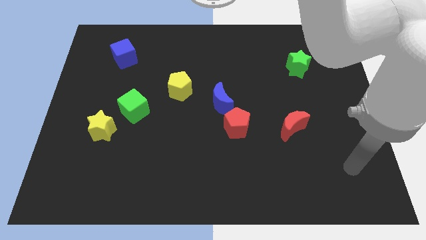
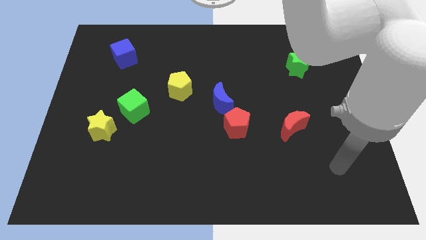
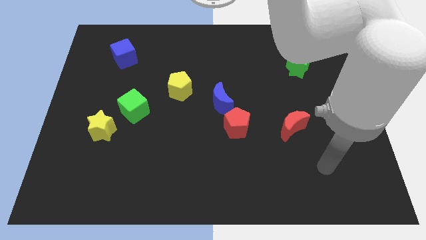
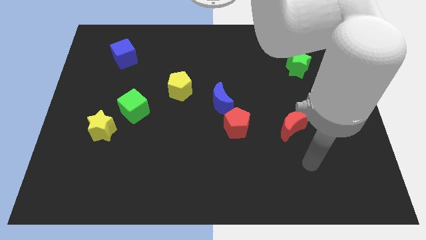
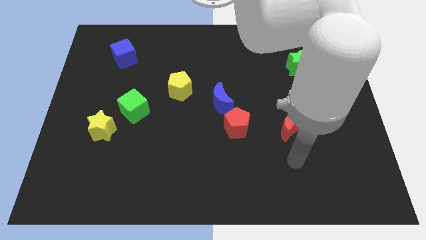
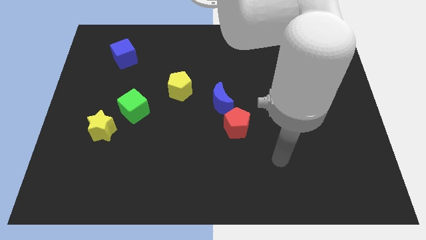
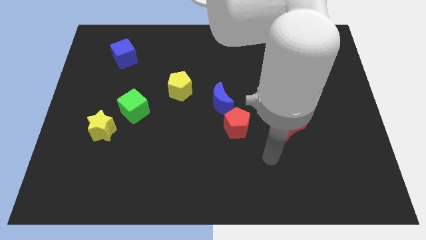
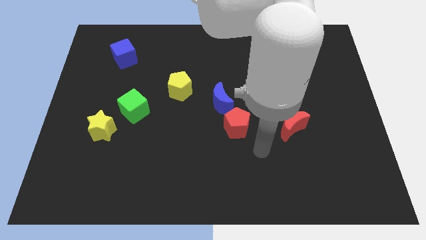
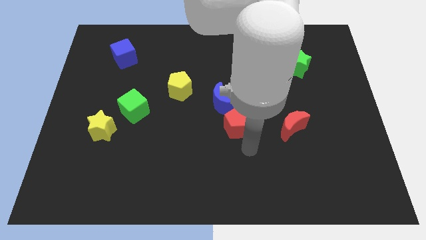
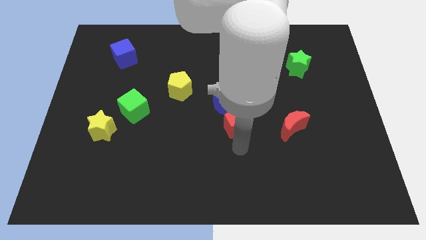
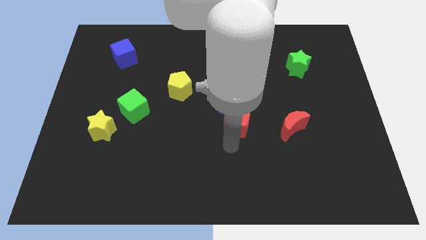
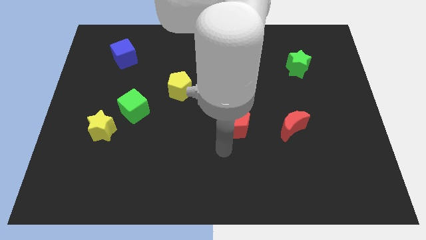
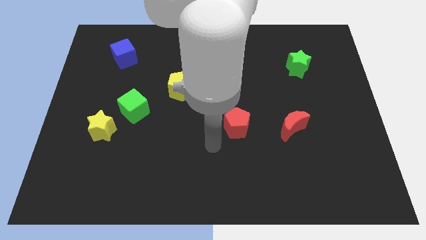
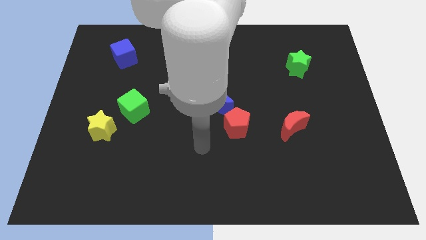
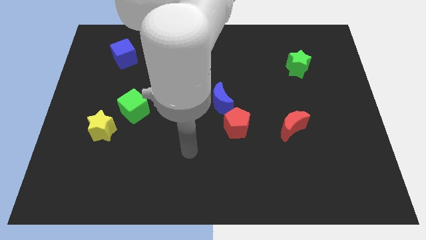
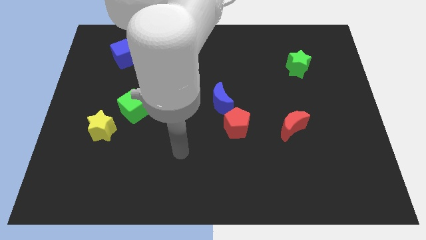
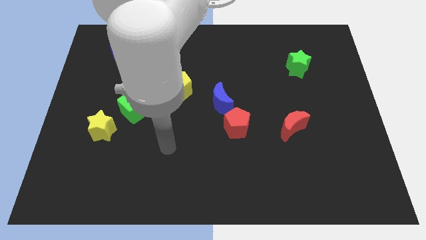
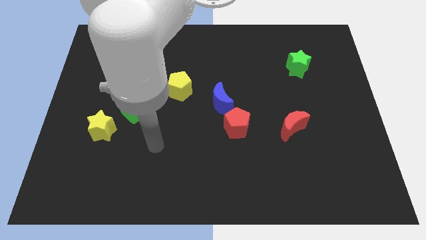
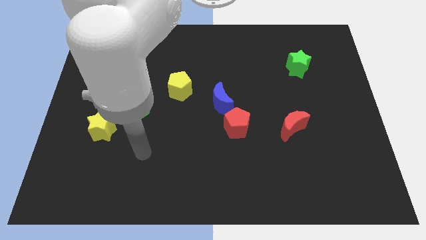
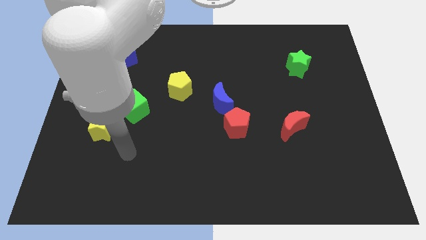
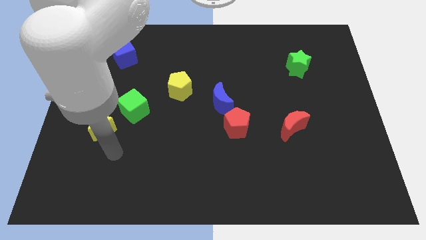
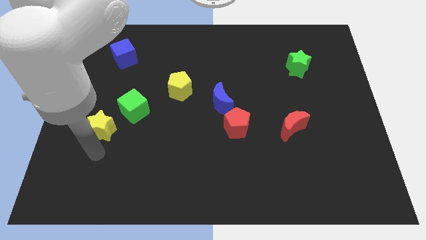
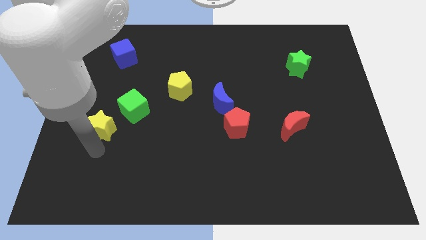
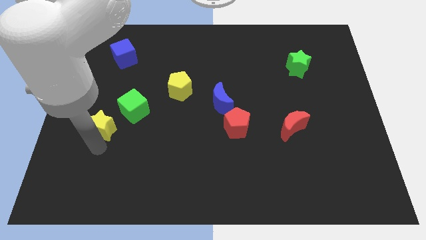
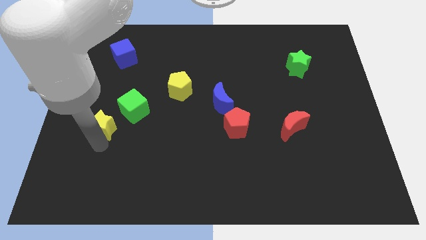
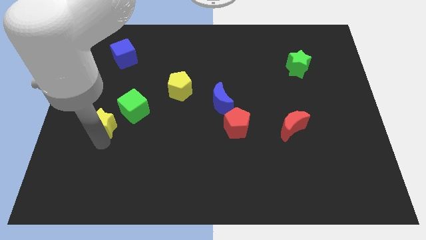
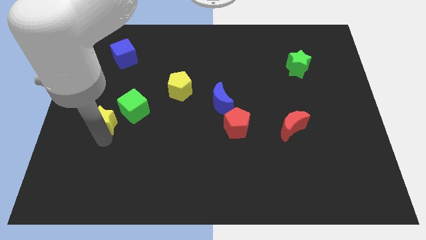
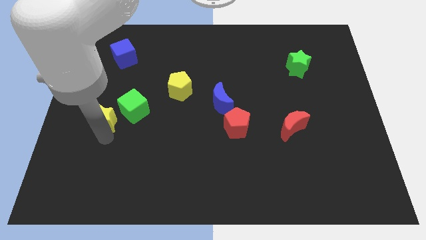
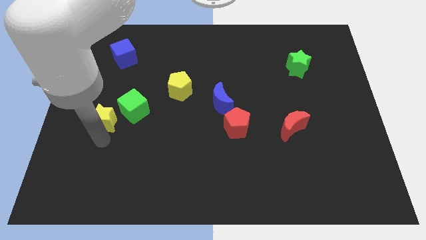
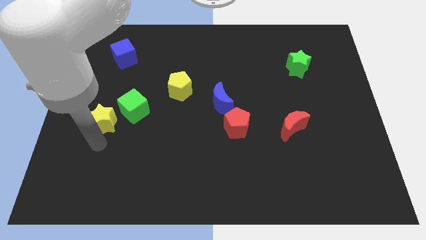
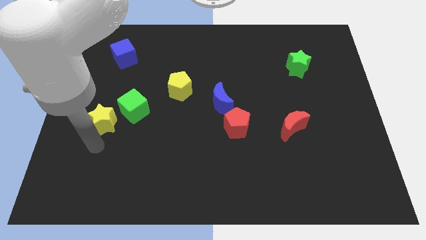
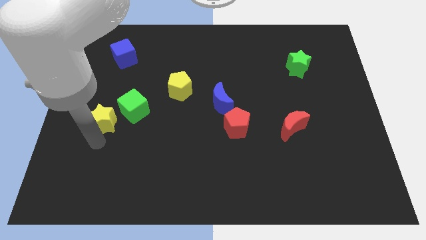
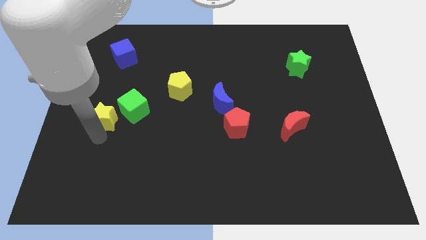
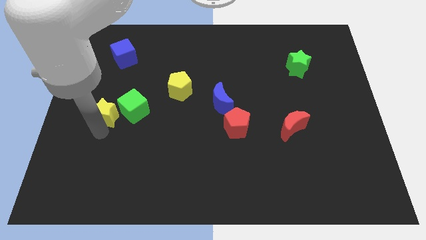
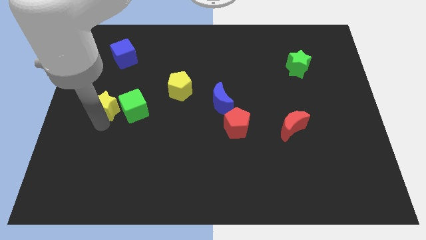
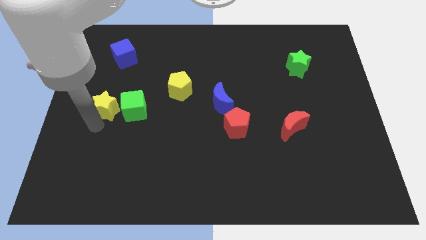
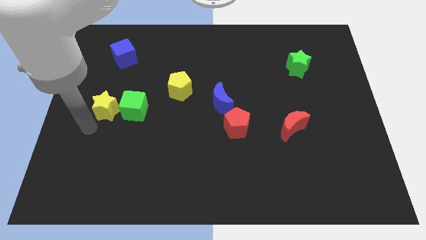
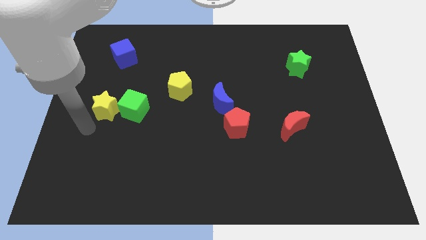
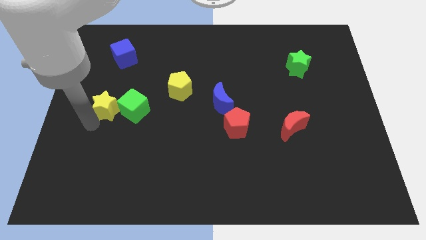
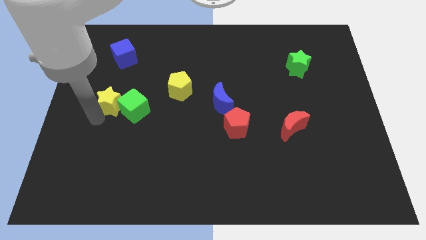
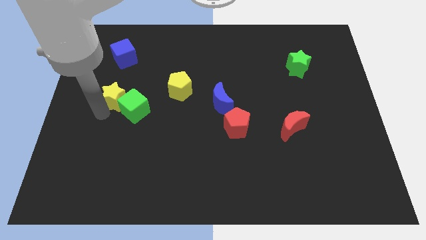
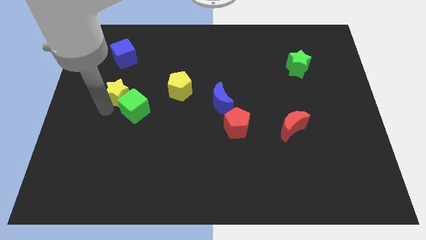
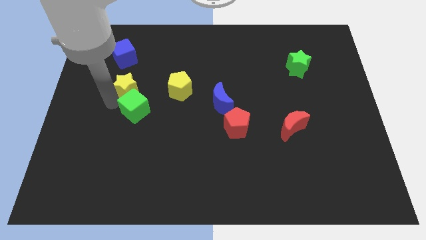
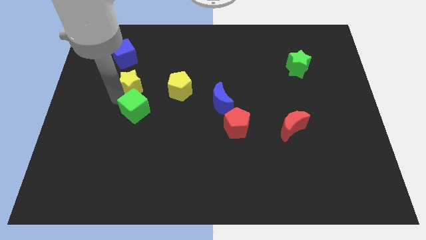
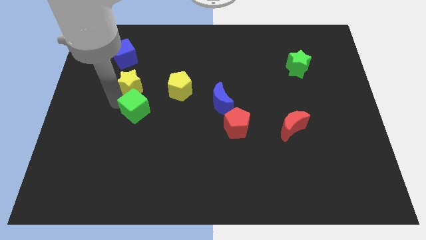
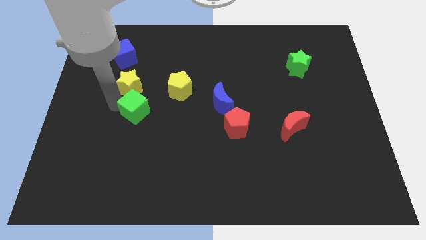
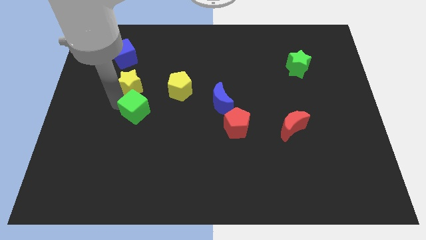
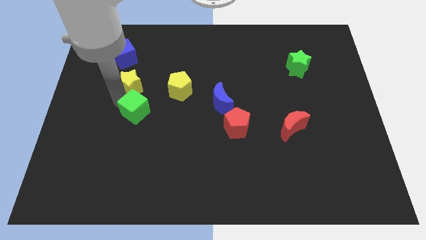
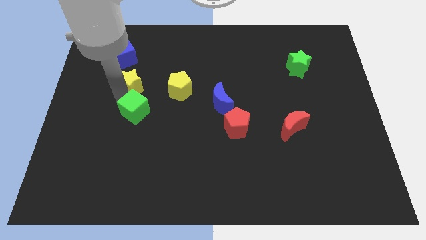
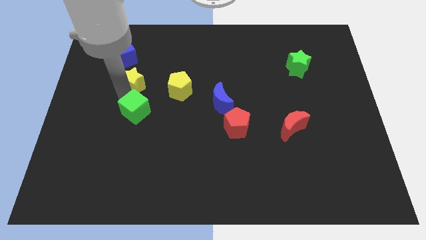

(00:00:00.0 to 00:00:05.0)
push the yellow star to the bottom right of the blue cube

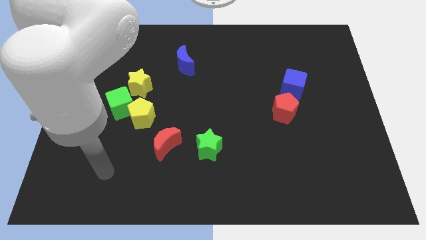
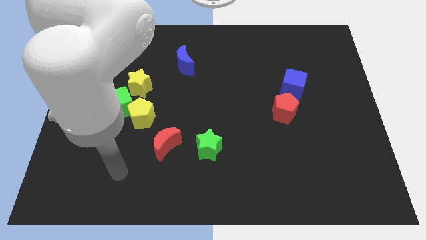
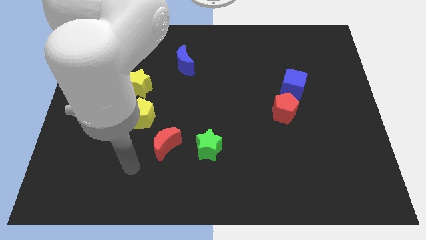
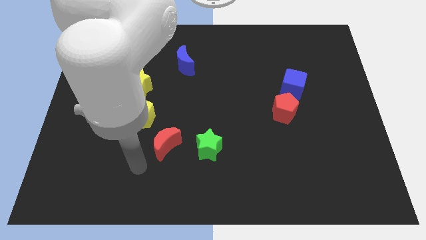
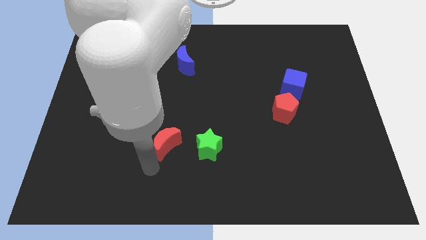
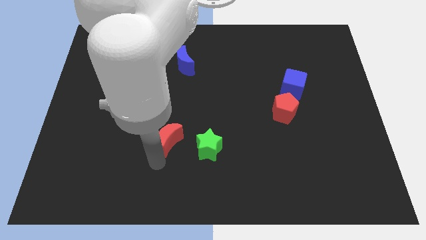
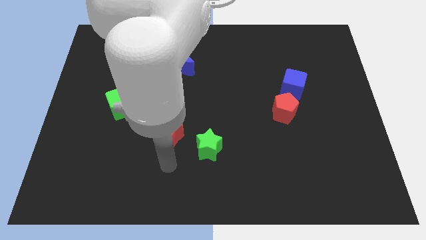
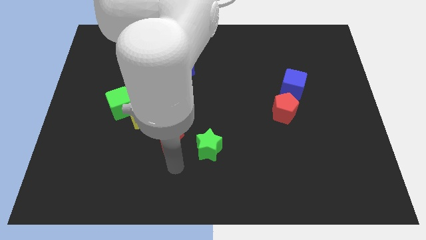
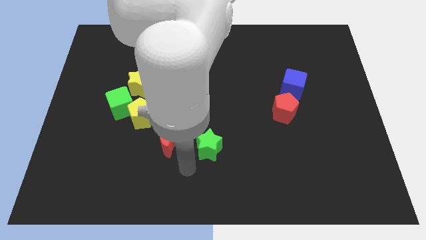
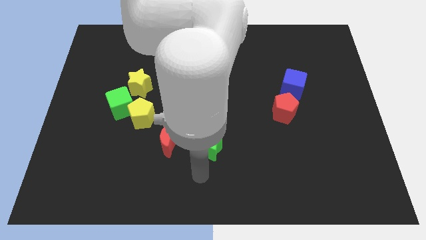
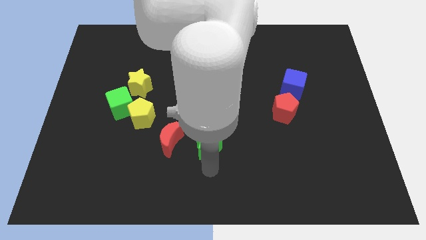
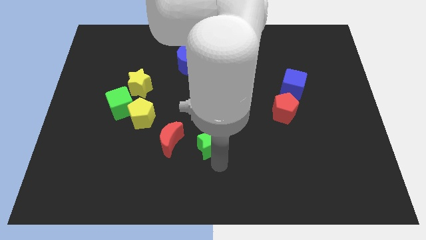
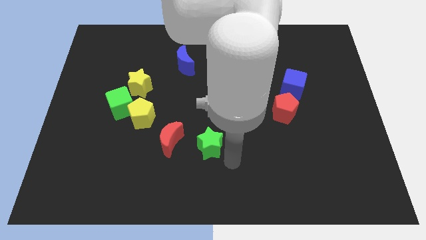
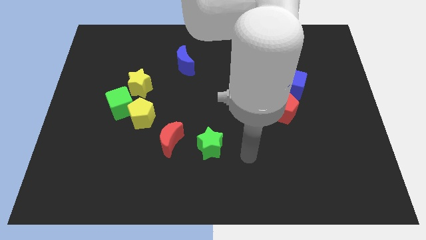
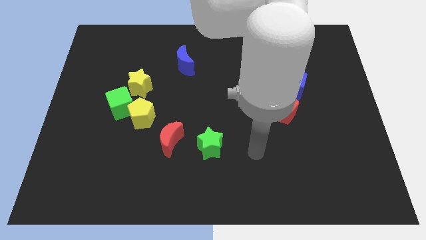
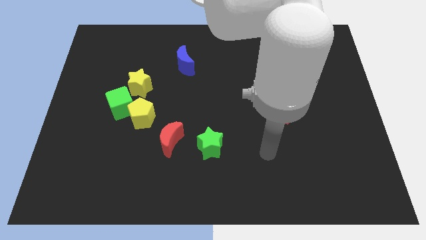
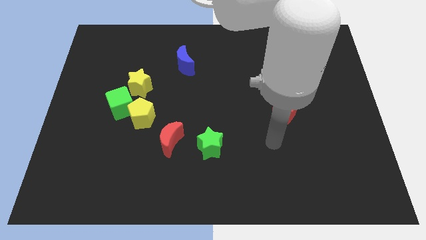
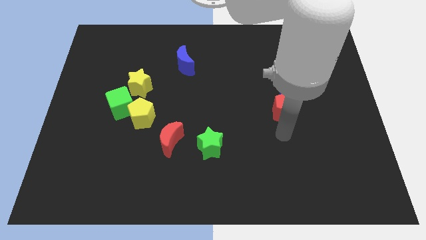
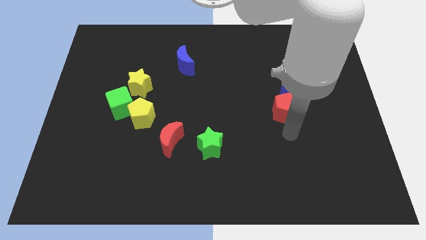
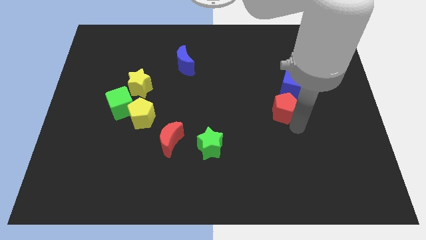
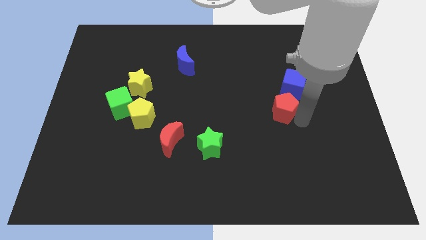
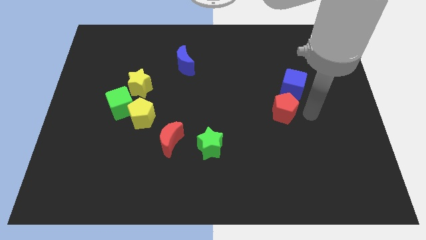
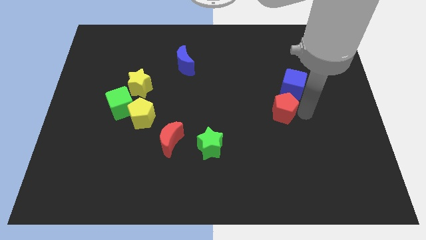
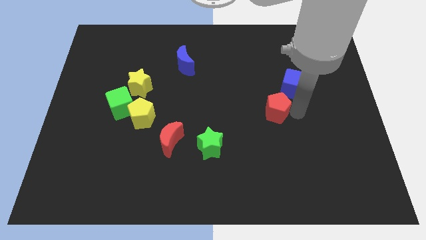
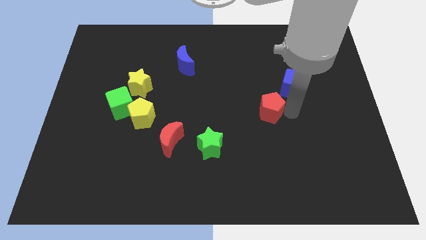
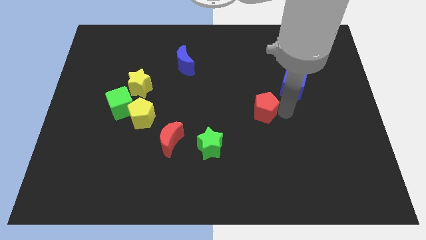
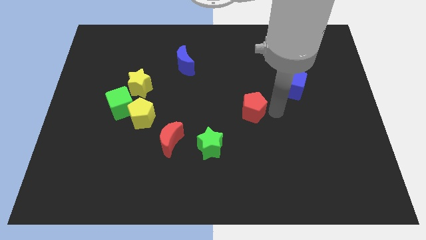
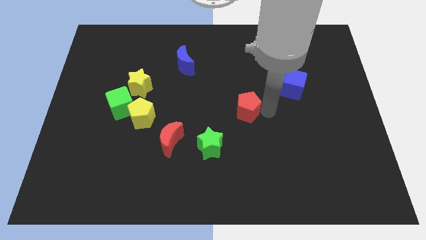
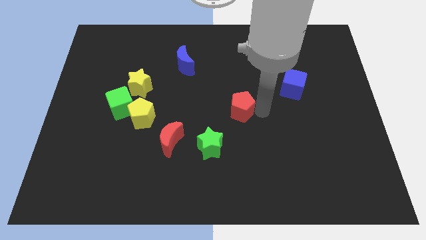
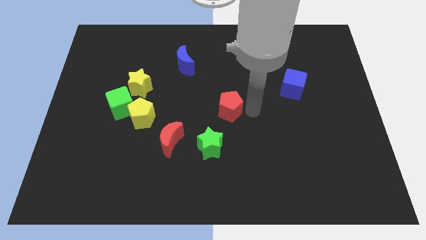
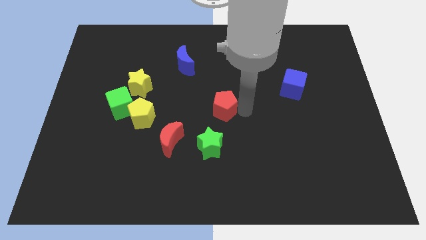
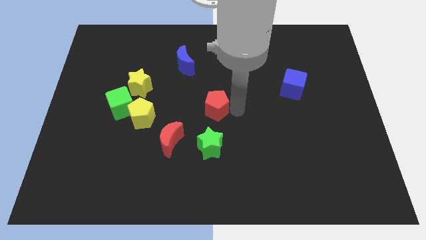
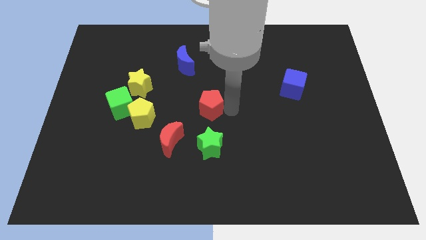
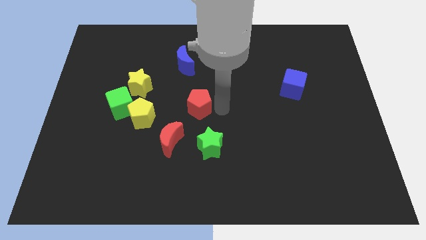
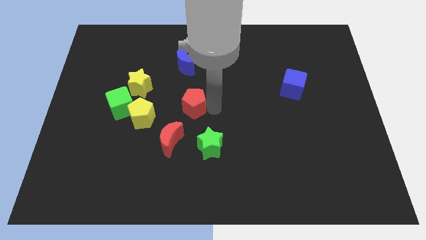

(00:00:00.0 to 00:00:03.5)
move the red pentagon to the top side of the red moon
